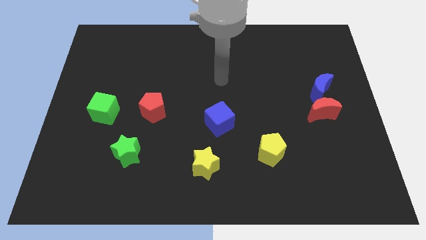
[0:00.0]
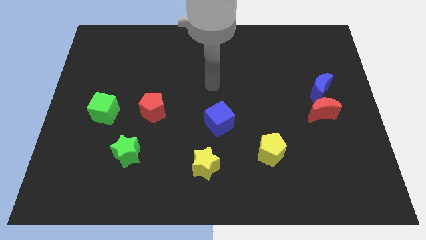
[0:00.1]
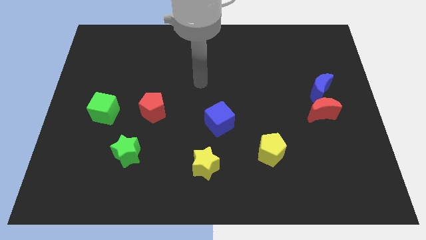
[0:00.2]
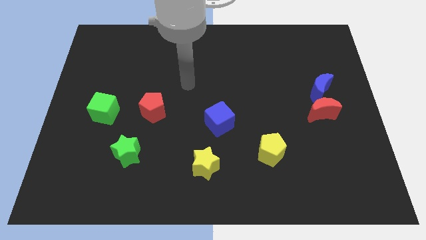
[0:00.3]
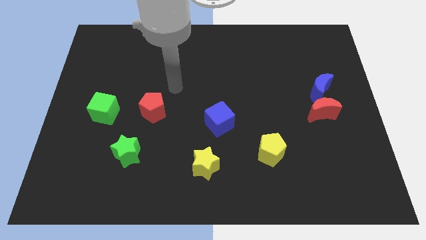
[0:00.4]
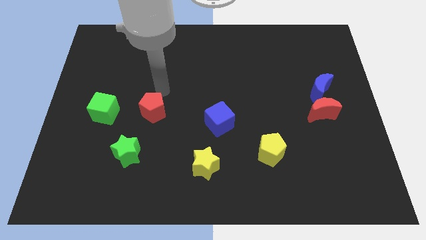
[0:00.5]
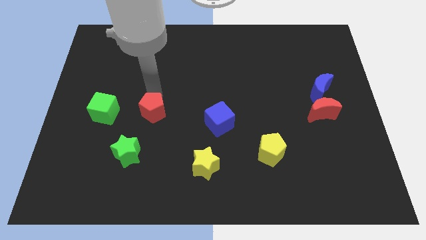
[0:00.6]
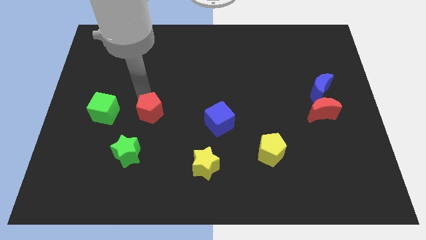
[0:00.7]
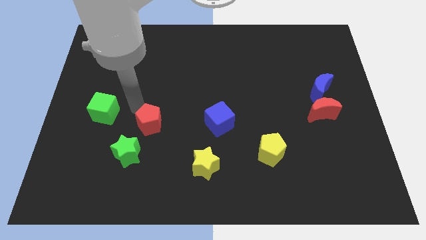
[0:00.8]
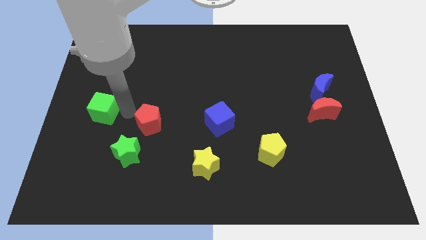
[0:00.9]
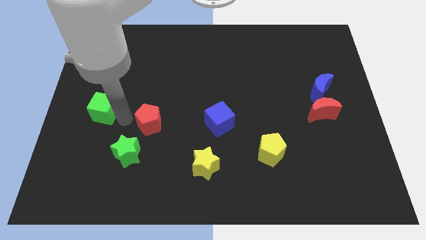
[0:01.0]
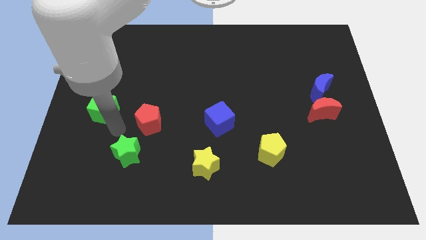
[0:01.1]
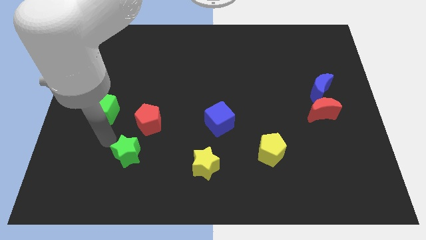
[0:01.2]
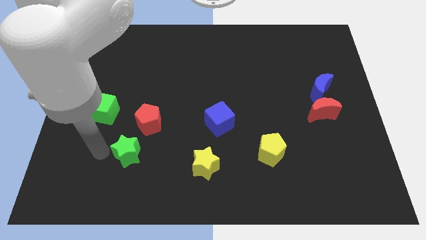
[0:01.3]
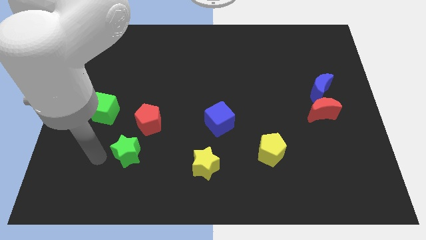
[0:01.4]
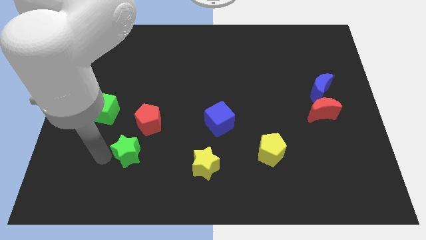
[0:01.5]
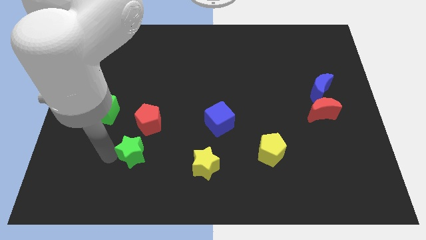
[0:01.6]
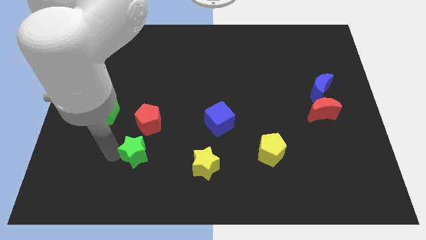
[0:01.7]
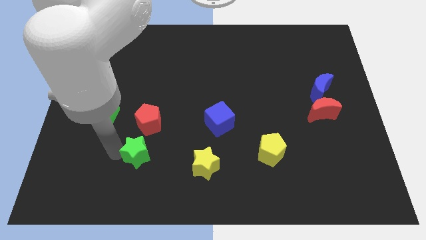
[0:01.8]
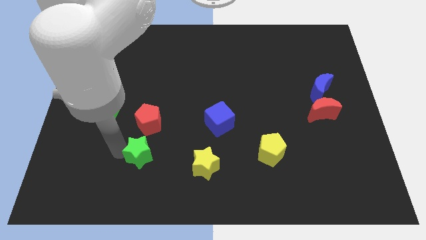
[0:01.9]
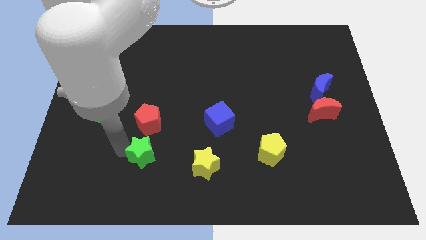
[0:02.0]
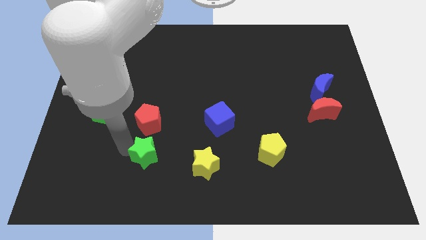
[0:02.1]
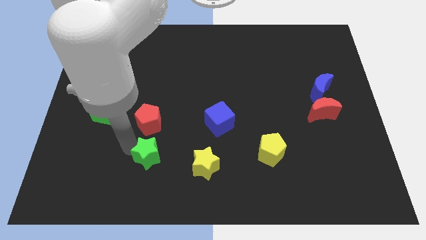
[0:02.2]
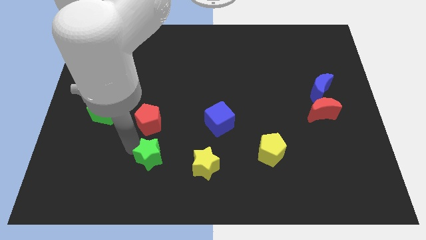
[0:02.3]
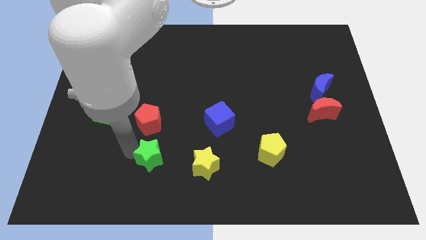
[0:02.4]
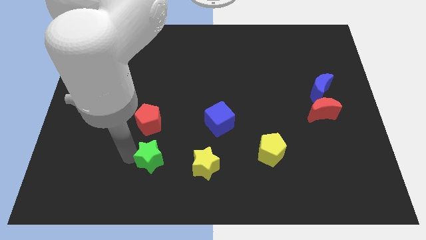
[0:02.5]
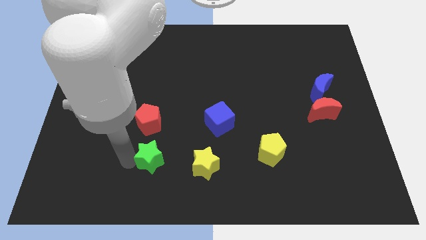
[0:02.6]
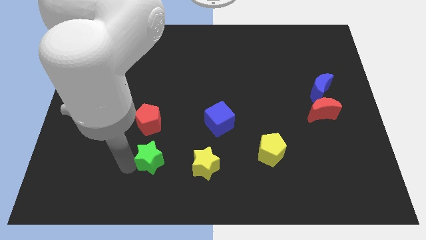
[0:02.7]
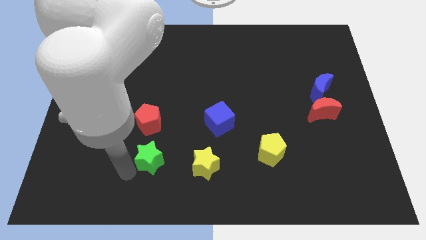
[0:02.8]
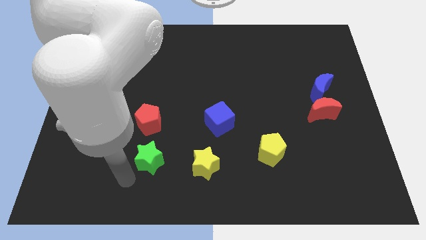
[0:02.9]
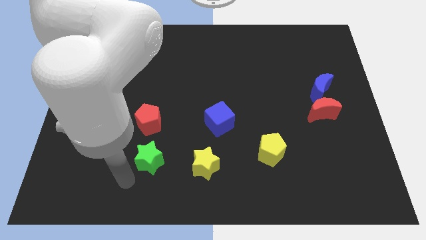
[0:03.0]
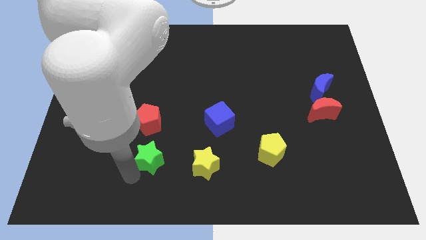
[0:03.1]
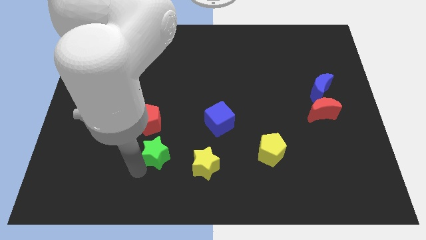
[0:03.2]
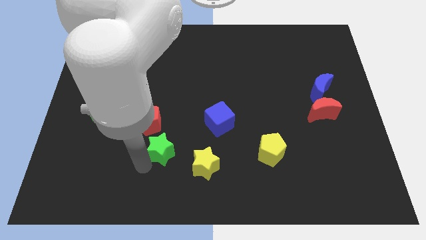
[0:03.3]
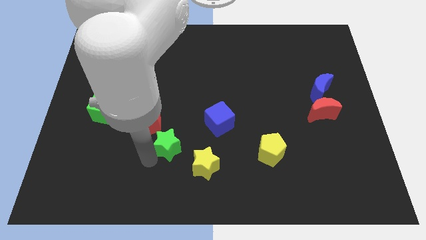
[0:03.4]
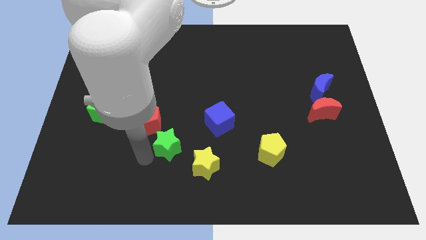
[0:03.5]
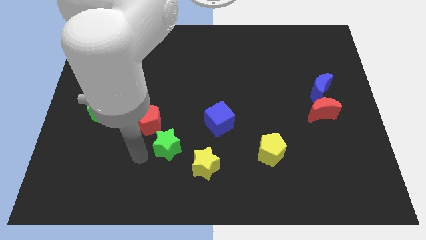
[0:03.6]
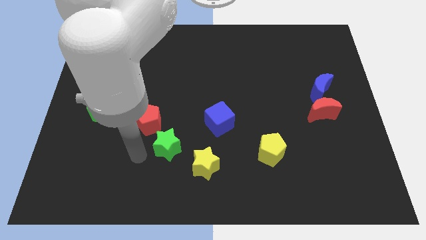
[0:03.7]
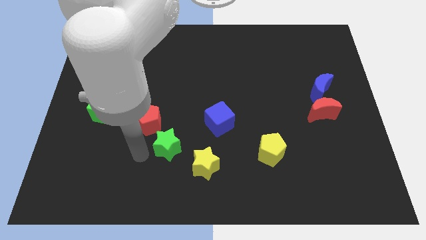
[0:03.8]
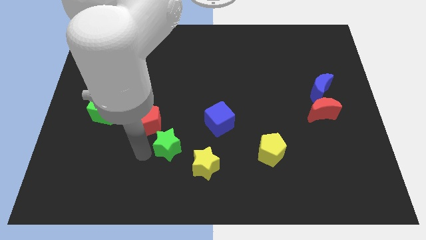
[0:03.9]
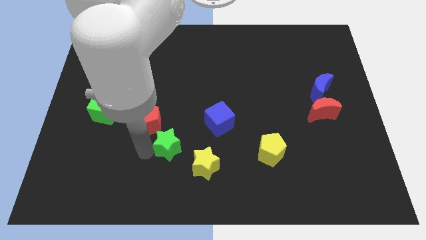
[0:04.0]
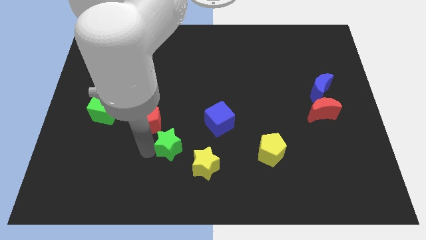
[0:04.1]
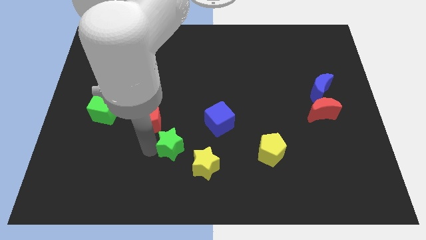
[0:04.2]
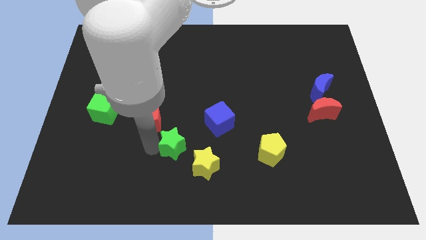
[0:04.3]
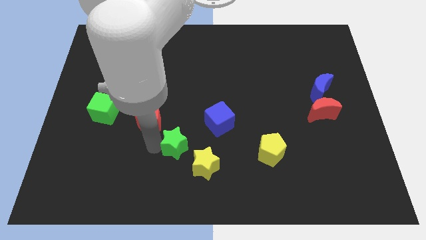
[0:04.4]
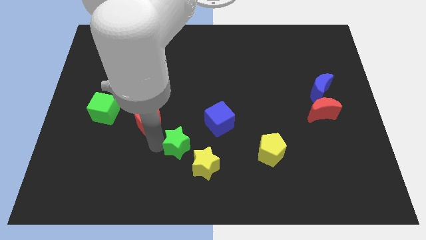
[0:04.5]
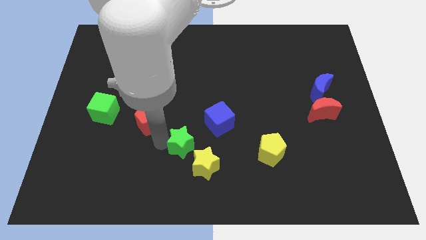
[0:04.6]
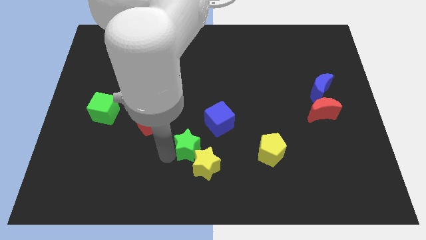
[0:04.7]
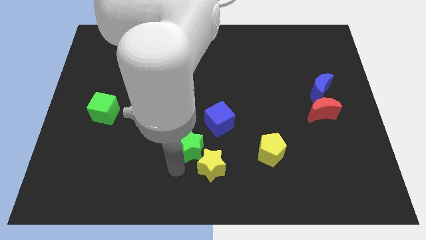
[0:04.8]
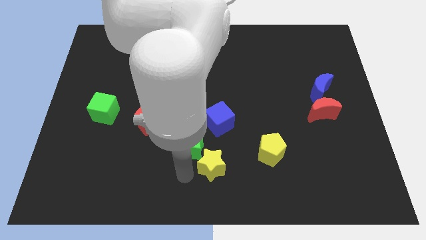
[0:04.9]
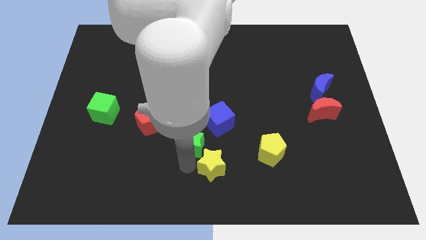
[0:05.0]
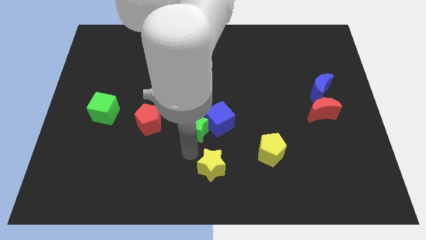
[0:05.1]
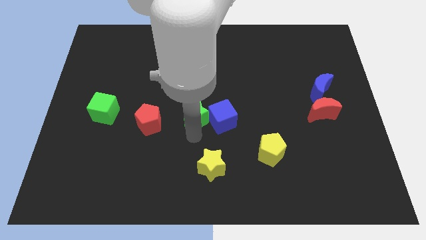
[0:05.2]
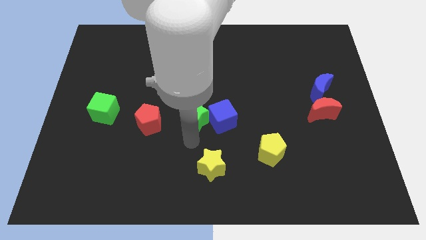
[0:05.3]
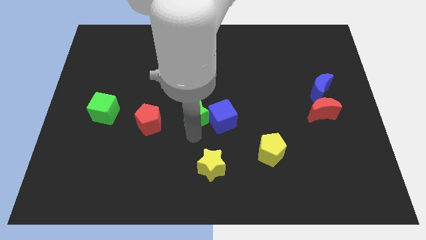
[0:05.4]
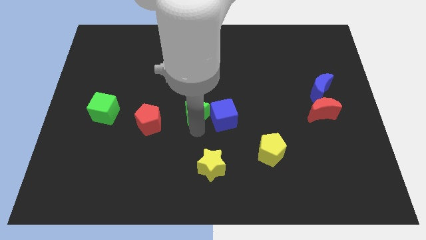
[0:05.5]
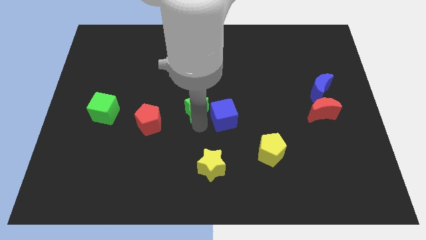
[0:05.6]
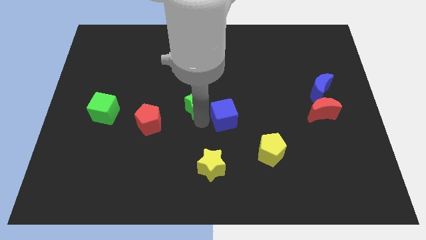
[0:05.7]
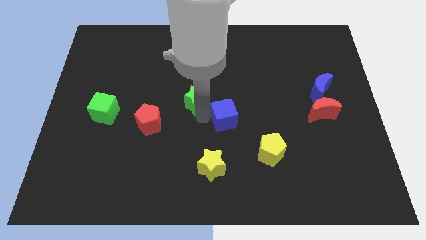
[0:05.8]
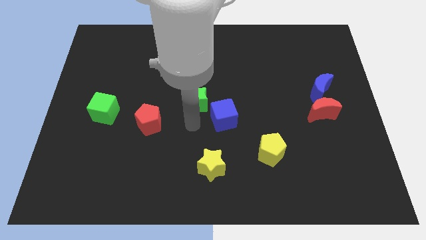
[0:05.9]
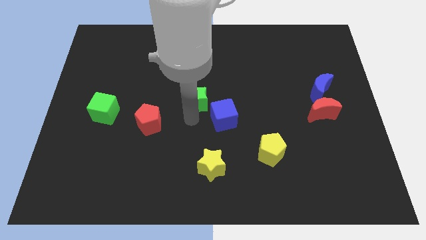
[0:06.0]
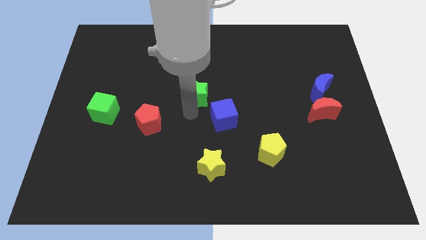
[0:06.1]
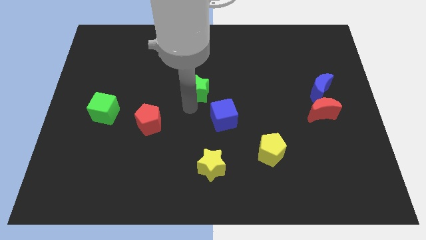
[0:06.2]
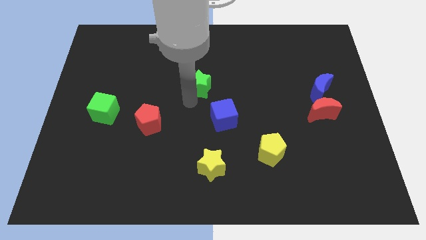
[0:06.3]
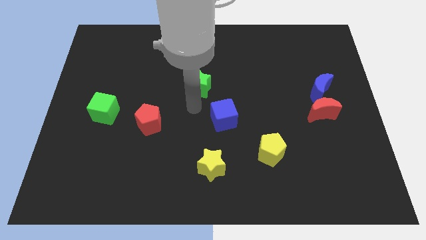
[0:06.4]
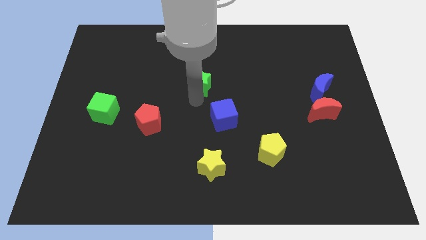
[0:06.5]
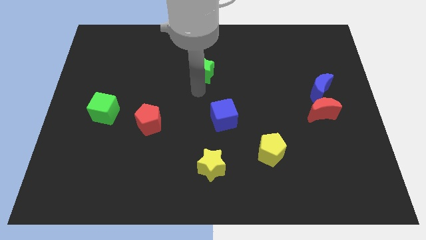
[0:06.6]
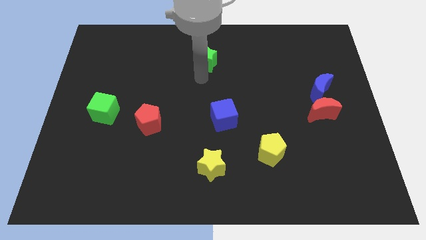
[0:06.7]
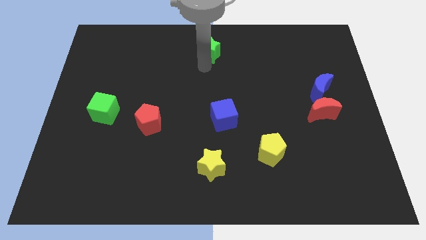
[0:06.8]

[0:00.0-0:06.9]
put the green star to the top
